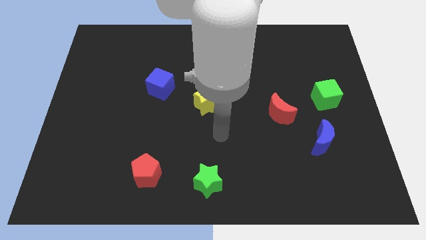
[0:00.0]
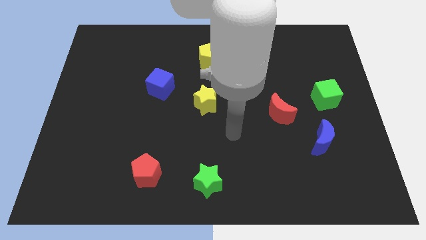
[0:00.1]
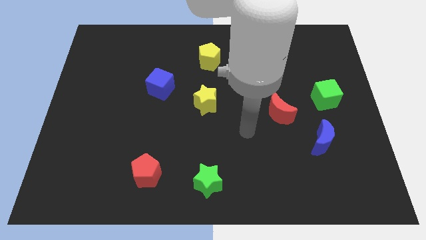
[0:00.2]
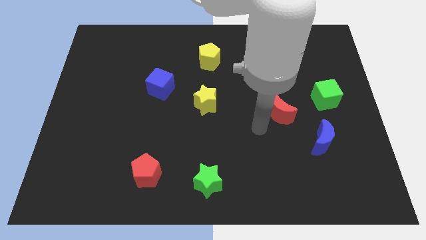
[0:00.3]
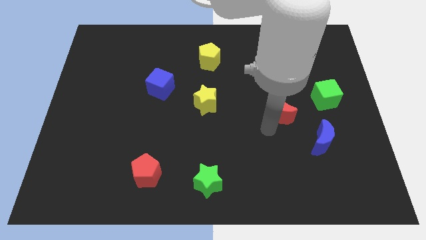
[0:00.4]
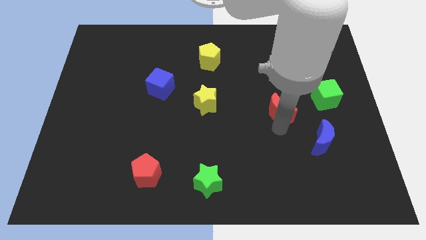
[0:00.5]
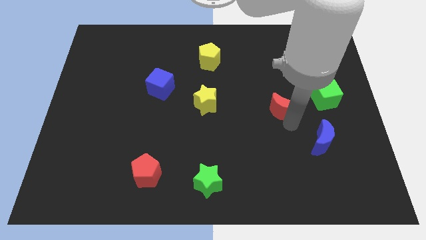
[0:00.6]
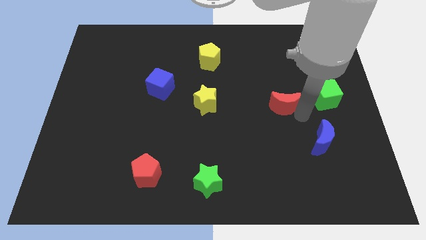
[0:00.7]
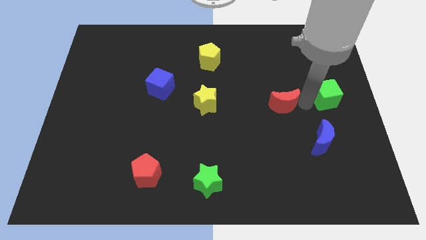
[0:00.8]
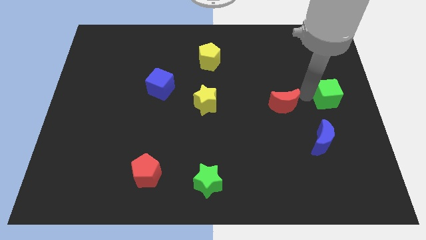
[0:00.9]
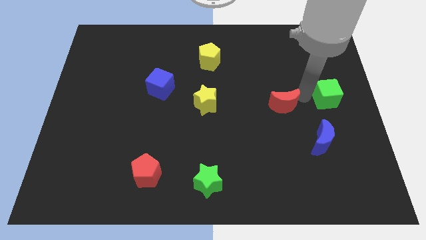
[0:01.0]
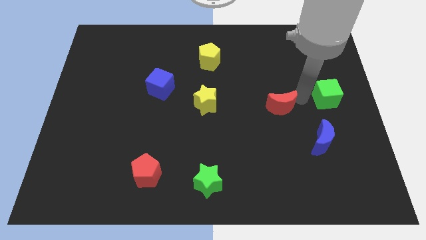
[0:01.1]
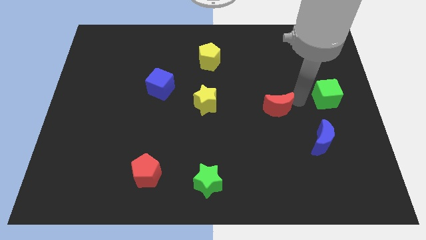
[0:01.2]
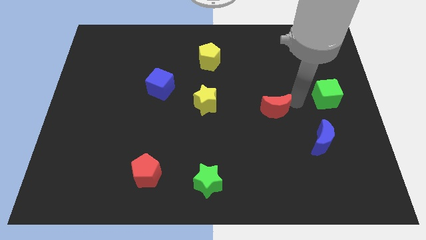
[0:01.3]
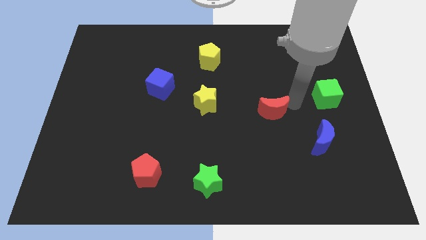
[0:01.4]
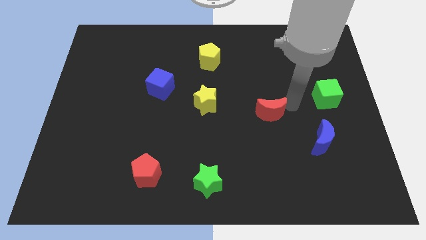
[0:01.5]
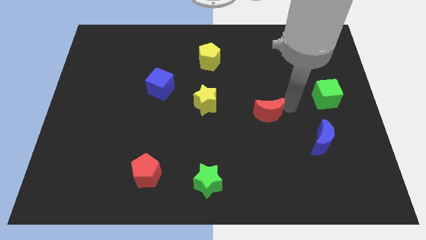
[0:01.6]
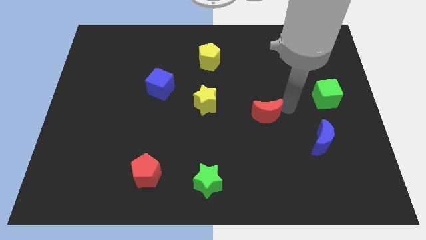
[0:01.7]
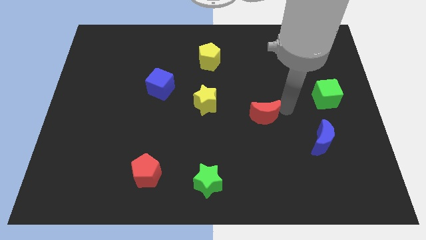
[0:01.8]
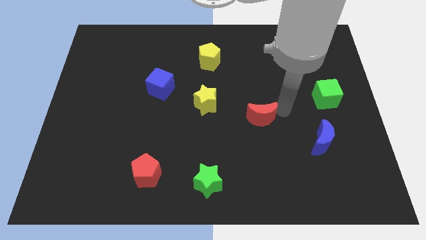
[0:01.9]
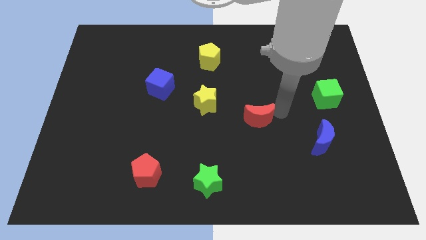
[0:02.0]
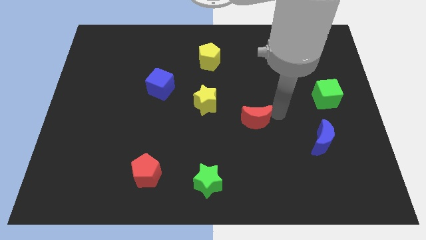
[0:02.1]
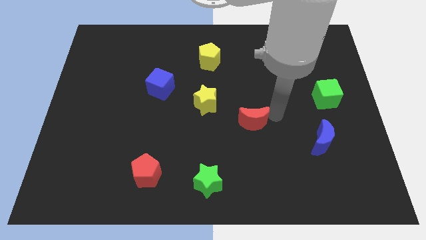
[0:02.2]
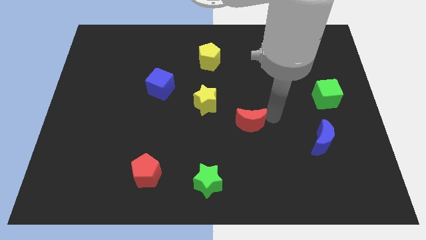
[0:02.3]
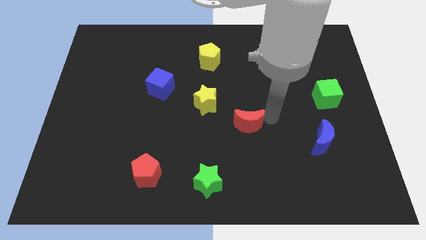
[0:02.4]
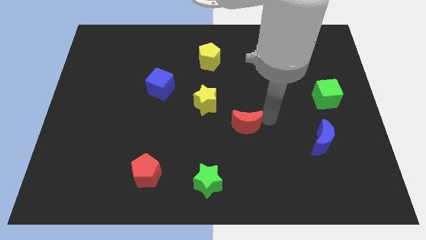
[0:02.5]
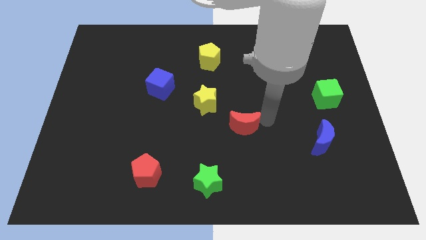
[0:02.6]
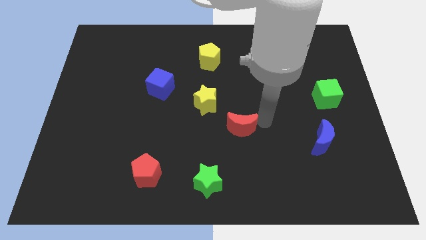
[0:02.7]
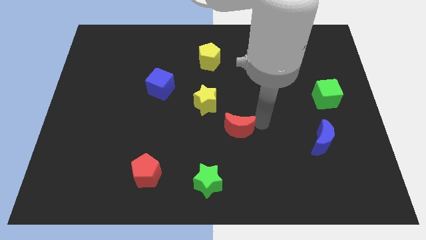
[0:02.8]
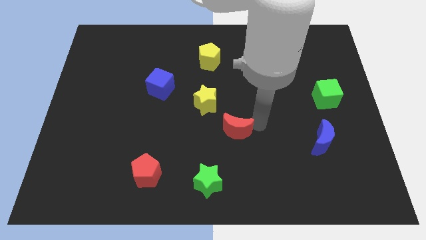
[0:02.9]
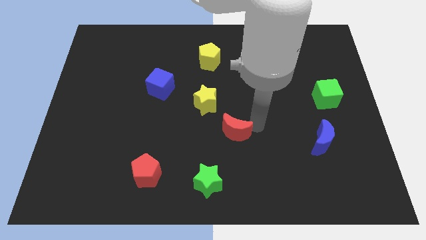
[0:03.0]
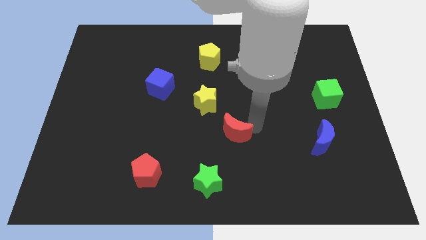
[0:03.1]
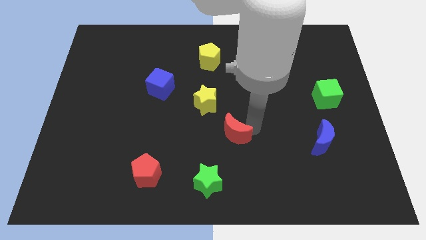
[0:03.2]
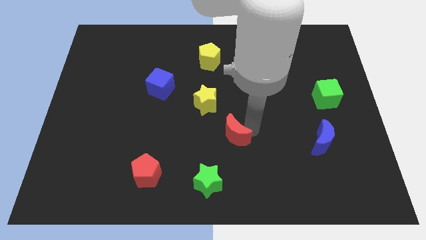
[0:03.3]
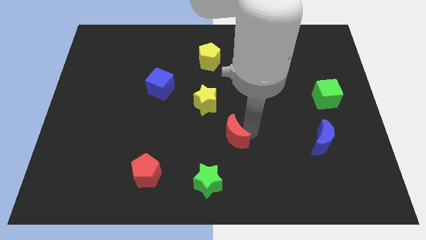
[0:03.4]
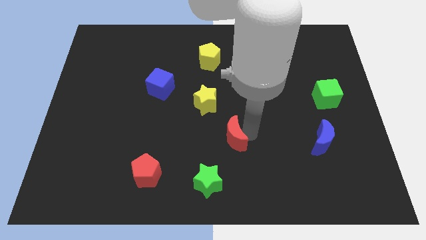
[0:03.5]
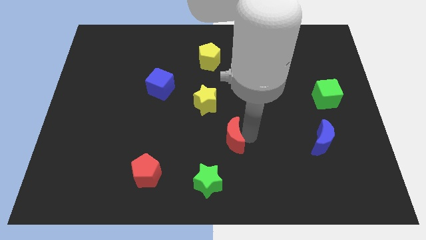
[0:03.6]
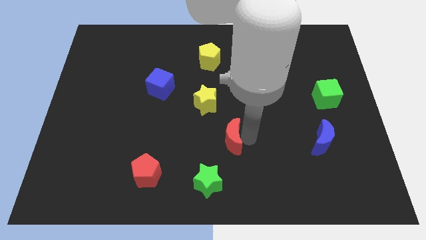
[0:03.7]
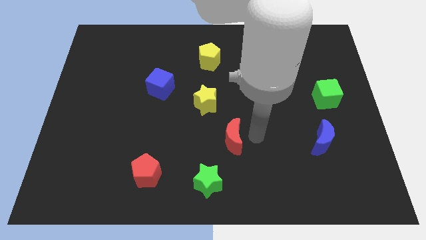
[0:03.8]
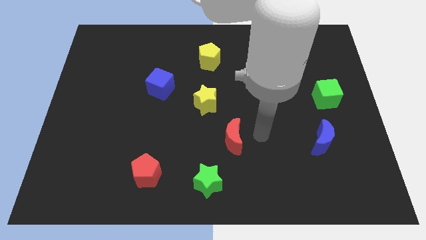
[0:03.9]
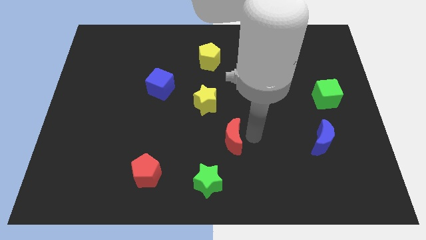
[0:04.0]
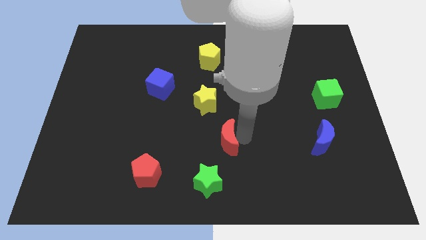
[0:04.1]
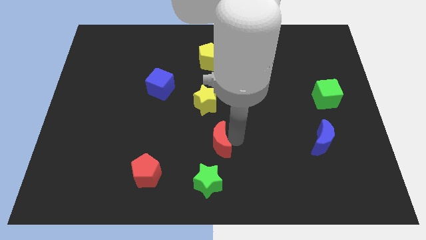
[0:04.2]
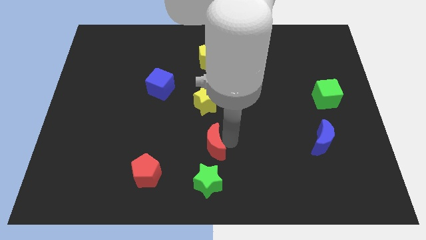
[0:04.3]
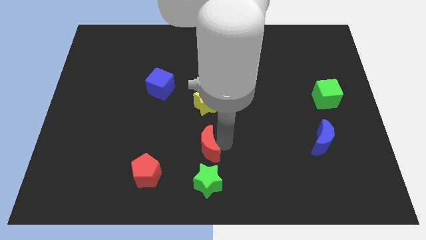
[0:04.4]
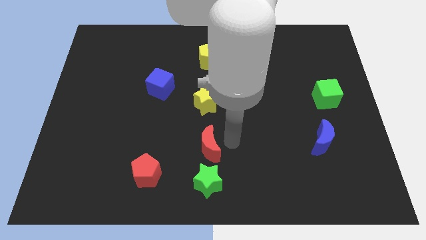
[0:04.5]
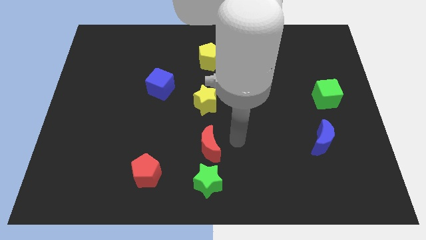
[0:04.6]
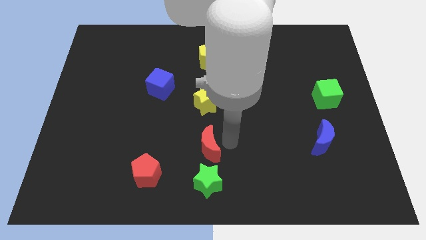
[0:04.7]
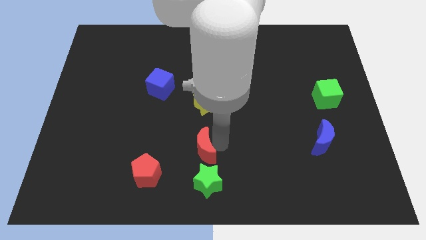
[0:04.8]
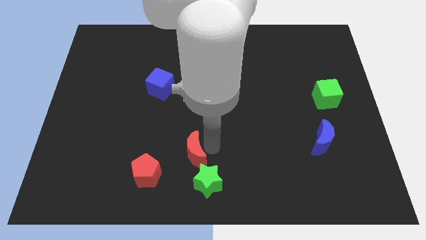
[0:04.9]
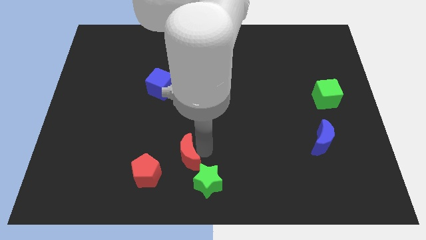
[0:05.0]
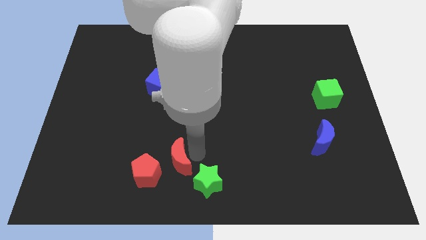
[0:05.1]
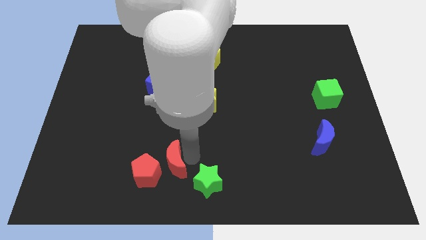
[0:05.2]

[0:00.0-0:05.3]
move the red moon close to the red pentagon

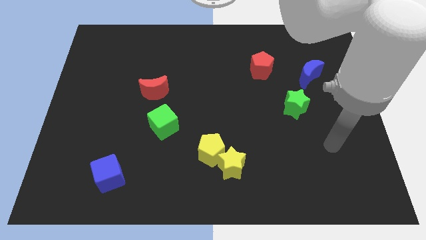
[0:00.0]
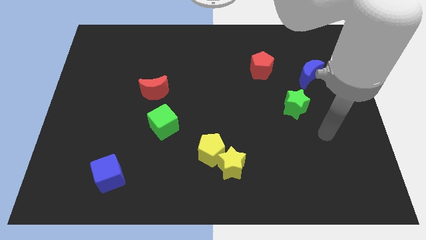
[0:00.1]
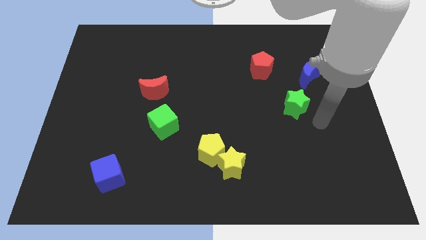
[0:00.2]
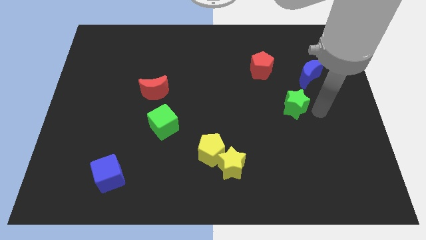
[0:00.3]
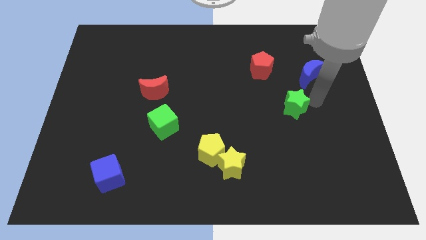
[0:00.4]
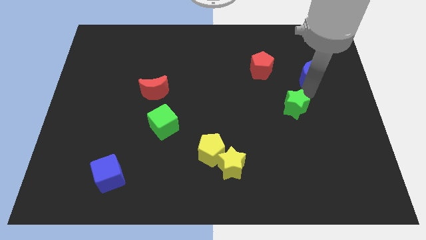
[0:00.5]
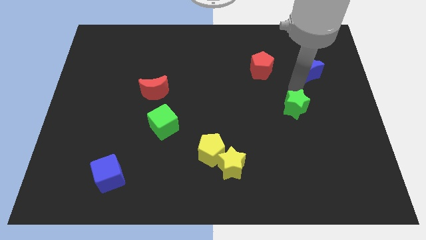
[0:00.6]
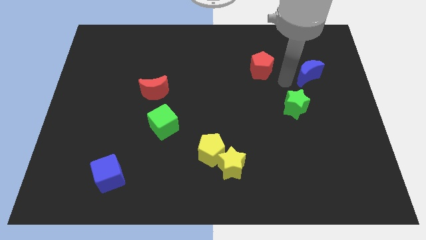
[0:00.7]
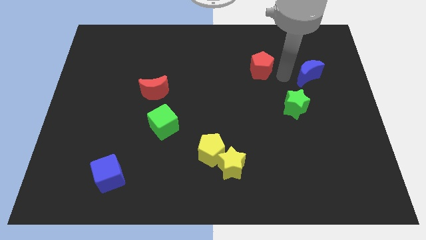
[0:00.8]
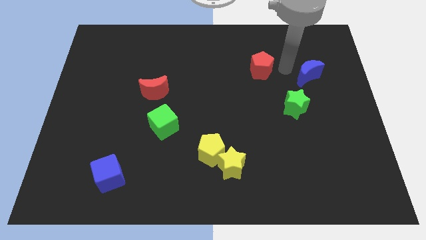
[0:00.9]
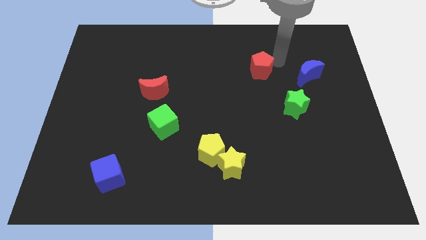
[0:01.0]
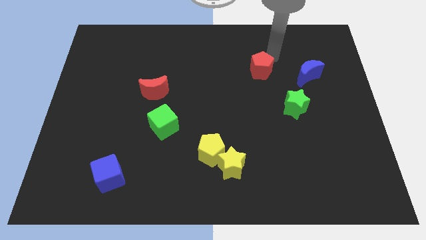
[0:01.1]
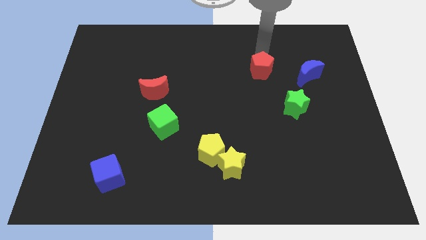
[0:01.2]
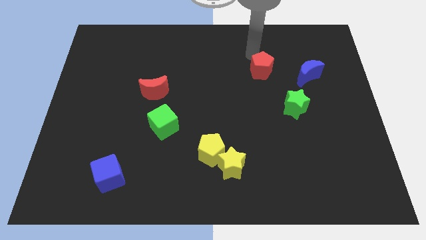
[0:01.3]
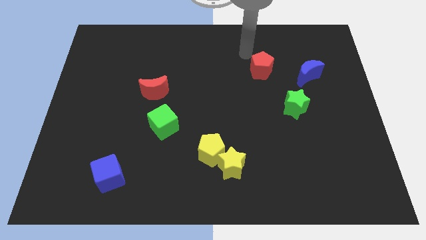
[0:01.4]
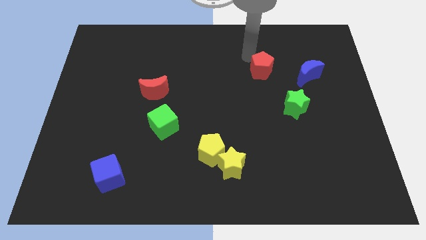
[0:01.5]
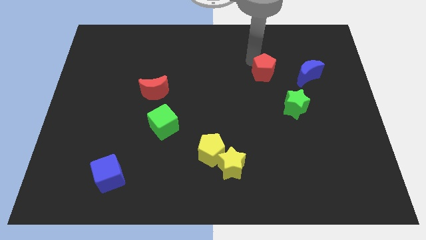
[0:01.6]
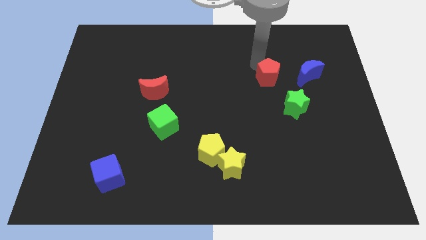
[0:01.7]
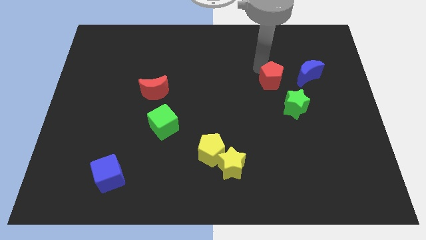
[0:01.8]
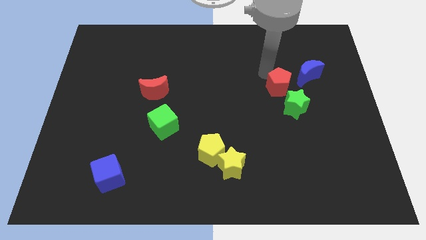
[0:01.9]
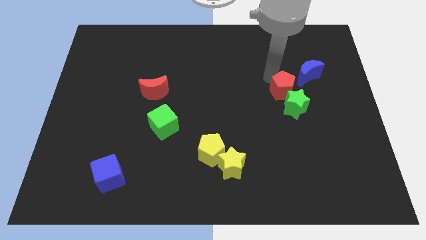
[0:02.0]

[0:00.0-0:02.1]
move the red pentagon to the green star
